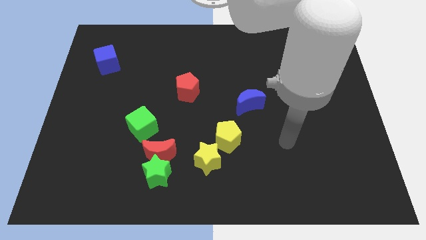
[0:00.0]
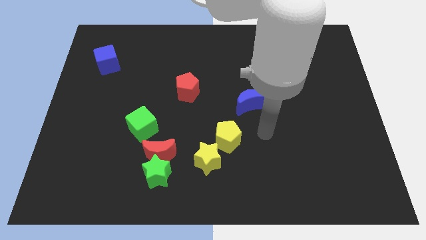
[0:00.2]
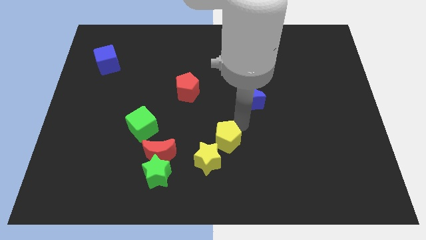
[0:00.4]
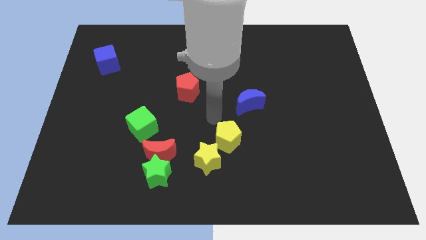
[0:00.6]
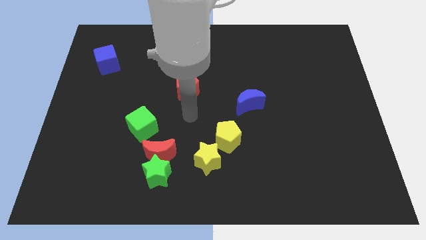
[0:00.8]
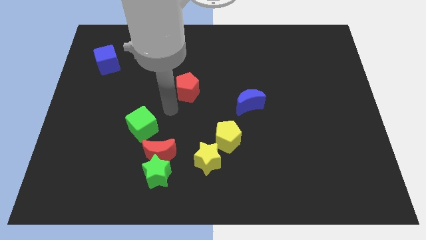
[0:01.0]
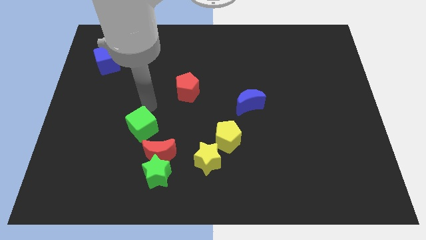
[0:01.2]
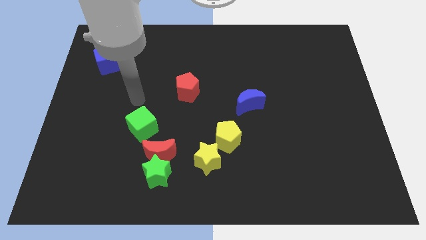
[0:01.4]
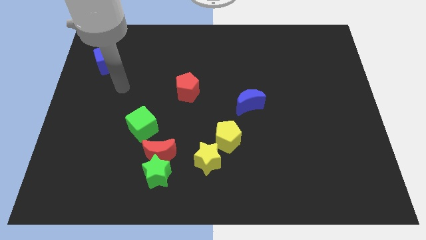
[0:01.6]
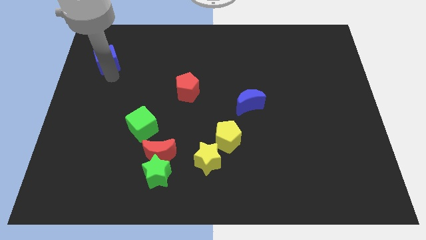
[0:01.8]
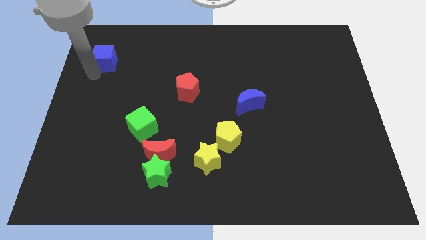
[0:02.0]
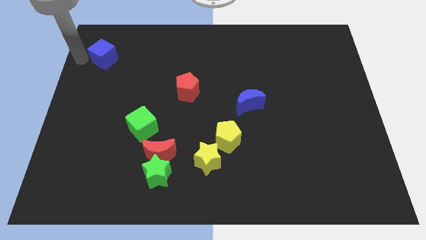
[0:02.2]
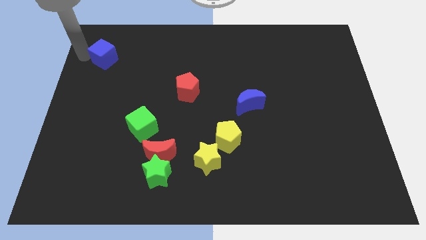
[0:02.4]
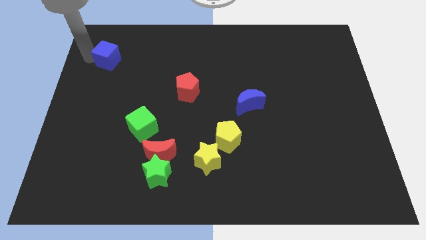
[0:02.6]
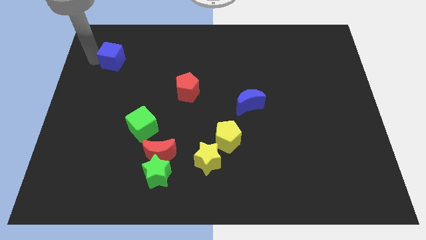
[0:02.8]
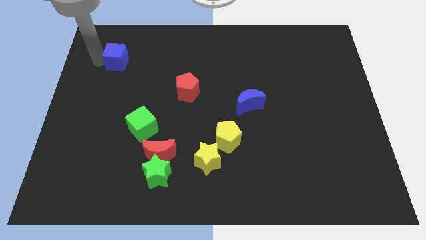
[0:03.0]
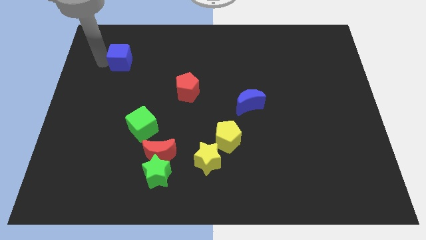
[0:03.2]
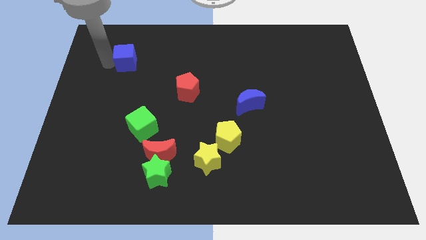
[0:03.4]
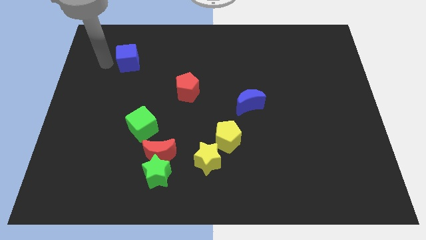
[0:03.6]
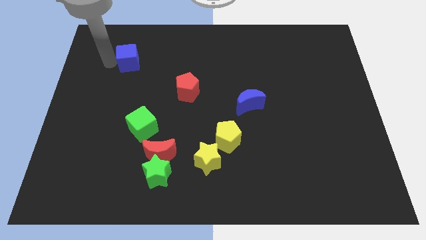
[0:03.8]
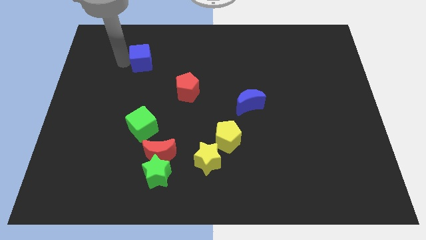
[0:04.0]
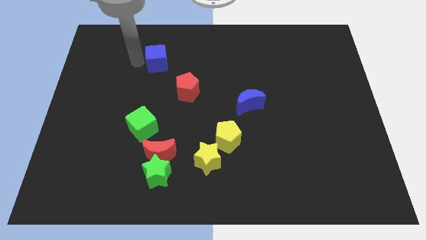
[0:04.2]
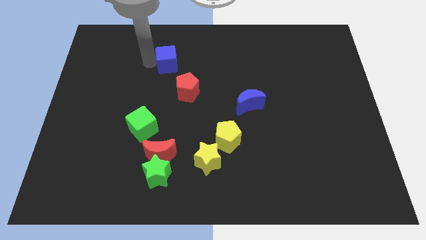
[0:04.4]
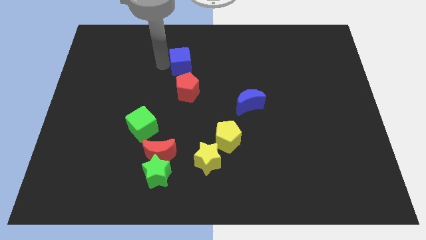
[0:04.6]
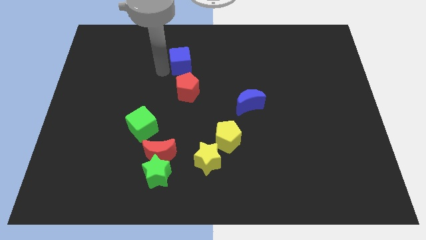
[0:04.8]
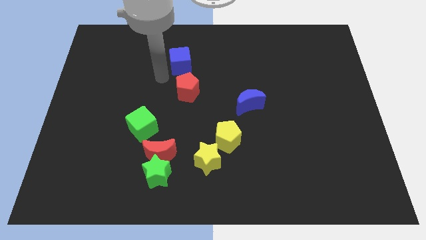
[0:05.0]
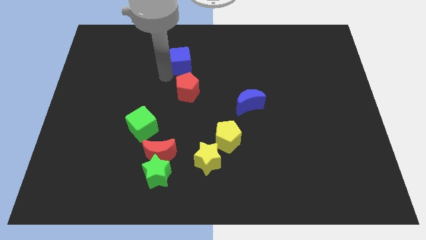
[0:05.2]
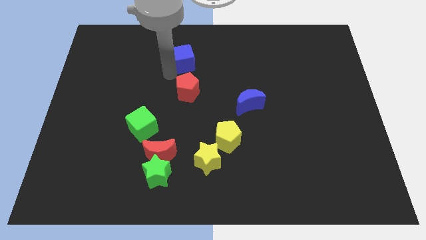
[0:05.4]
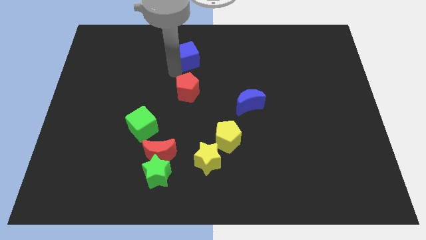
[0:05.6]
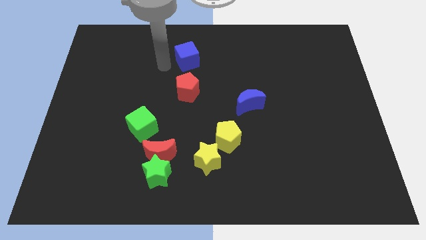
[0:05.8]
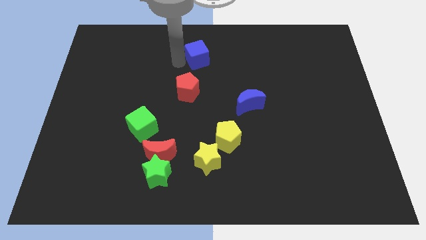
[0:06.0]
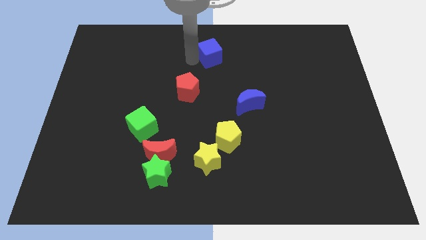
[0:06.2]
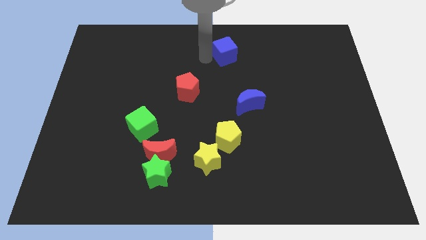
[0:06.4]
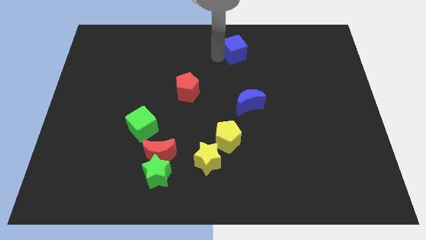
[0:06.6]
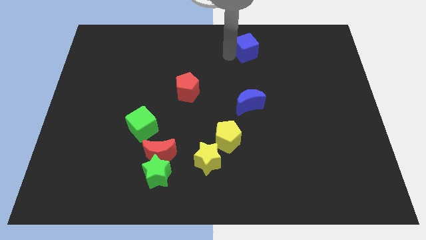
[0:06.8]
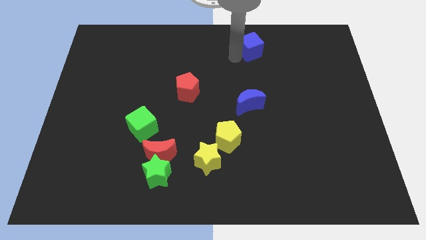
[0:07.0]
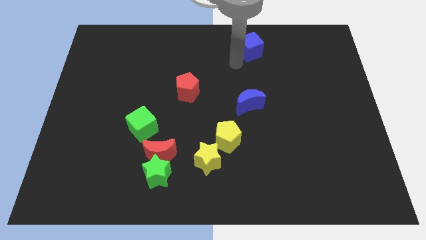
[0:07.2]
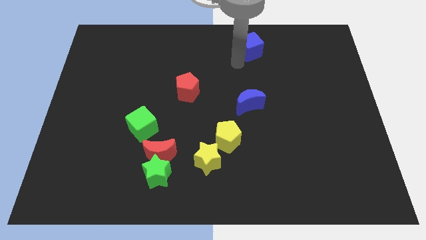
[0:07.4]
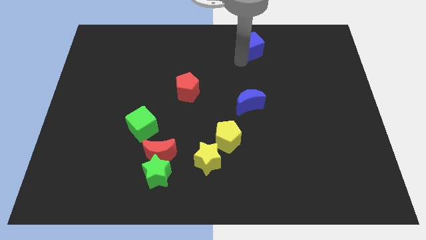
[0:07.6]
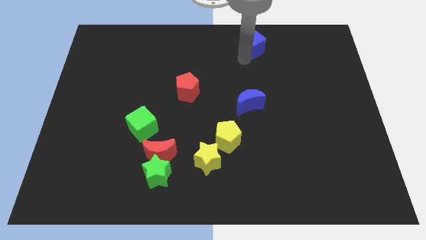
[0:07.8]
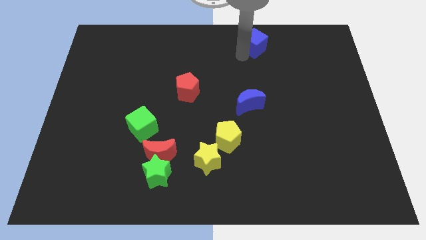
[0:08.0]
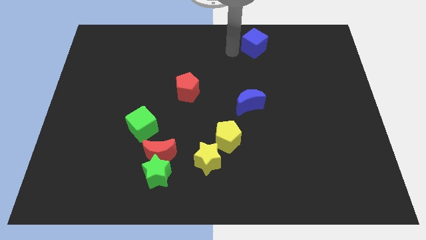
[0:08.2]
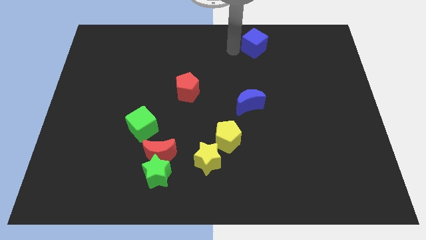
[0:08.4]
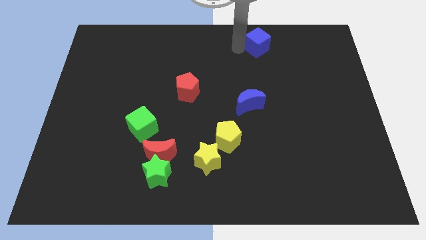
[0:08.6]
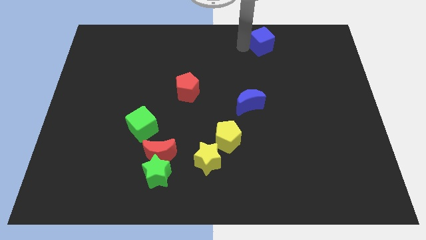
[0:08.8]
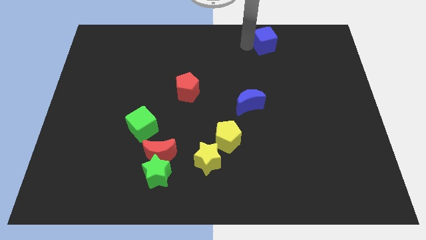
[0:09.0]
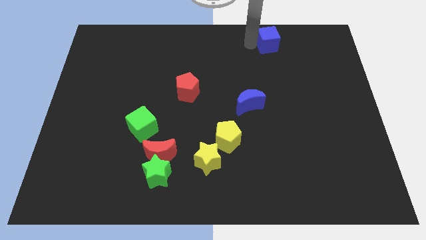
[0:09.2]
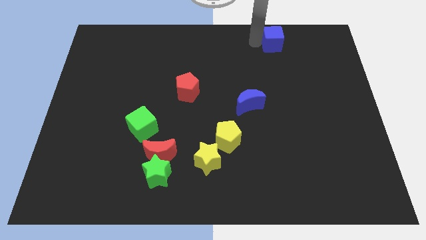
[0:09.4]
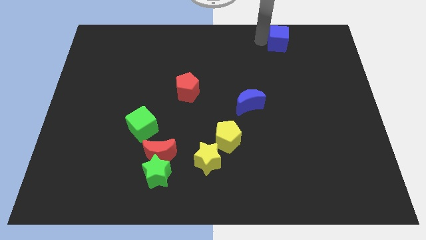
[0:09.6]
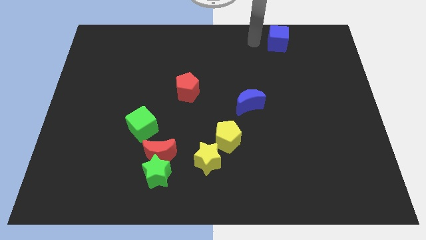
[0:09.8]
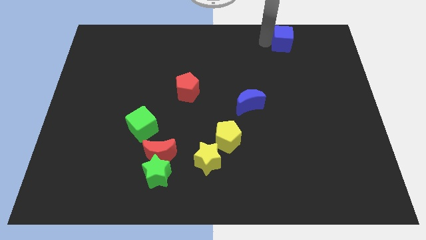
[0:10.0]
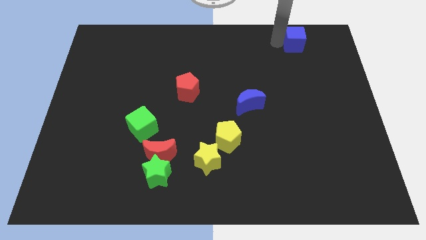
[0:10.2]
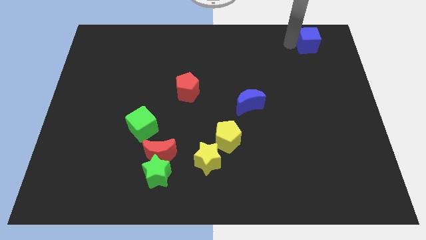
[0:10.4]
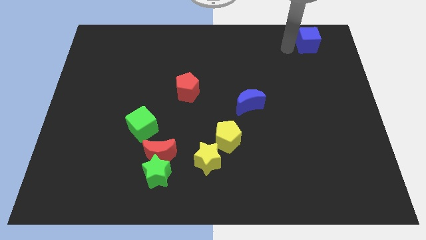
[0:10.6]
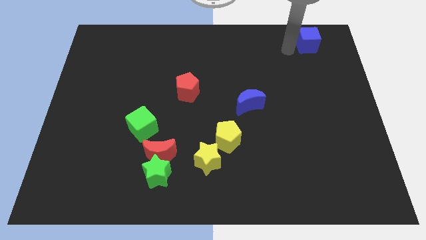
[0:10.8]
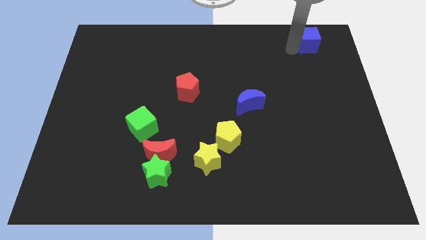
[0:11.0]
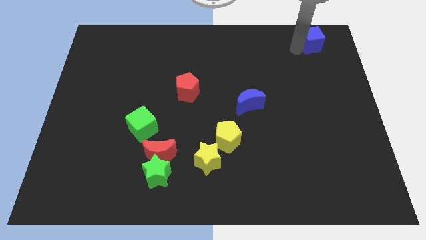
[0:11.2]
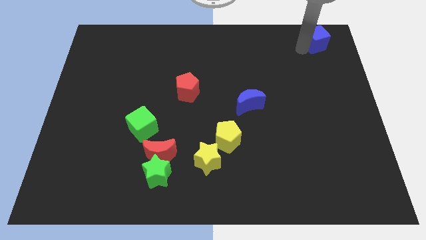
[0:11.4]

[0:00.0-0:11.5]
move the blue cube to the top right corner

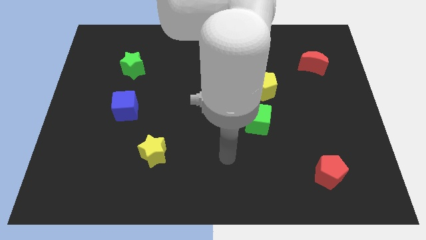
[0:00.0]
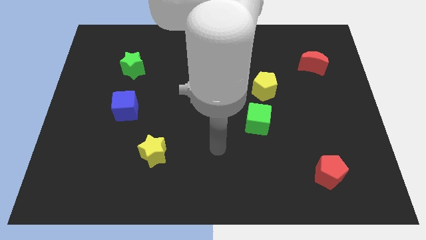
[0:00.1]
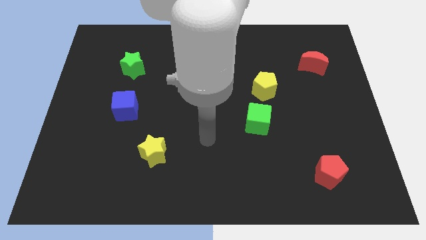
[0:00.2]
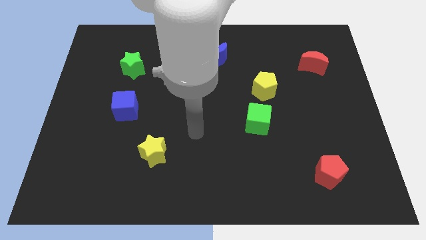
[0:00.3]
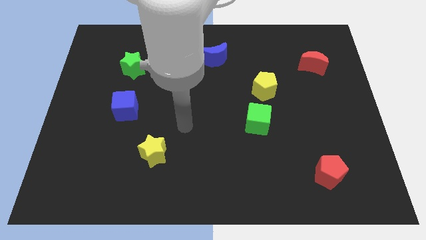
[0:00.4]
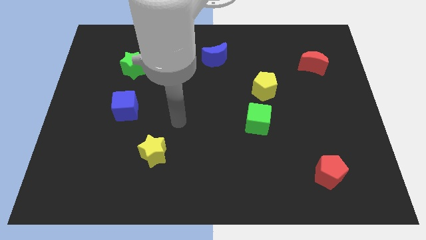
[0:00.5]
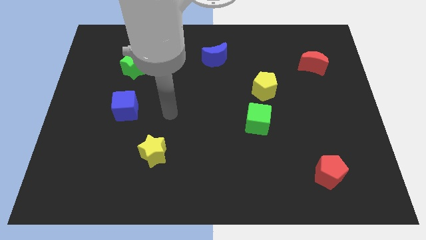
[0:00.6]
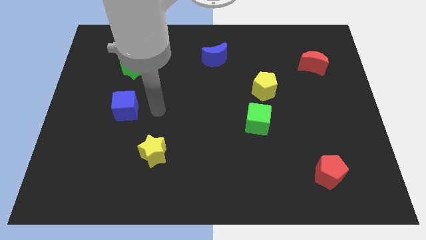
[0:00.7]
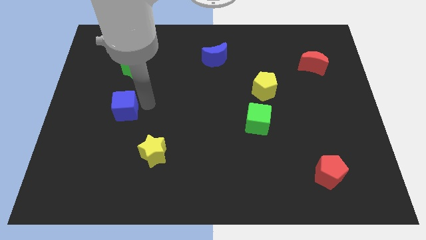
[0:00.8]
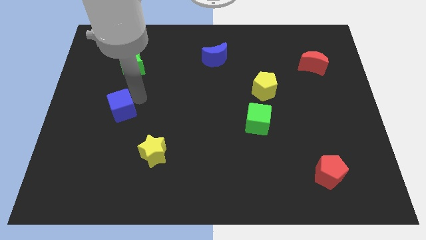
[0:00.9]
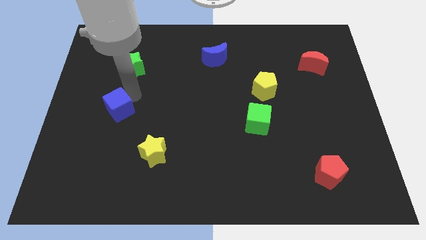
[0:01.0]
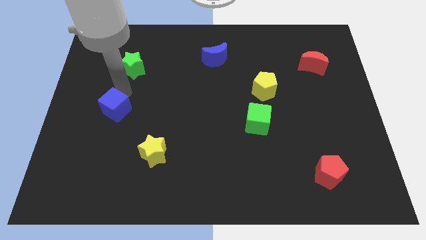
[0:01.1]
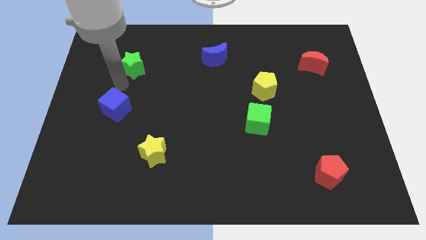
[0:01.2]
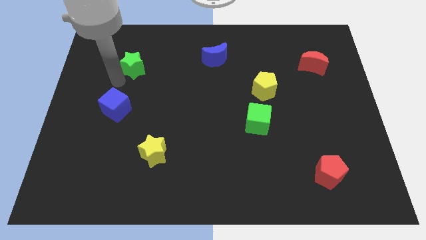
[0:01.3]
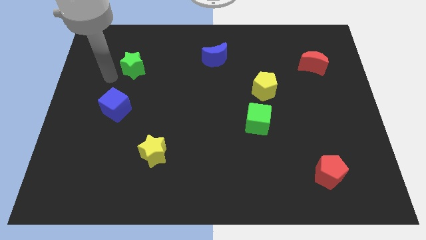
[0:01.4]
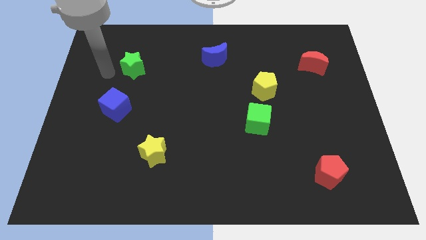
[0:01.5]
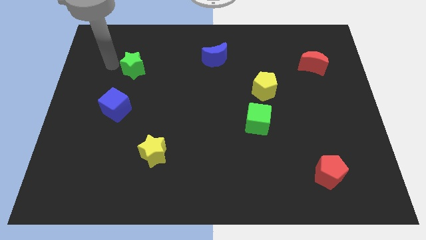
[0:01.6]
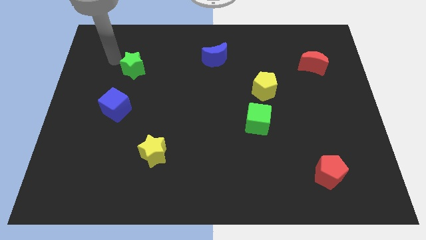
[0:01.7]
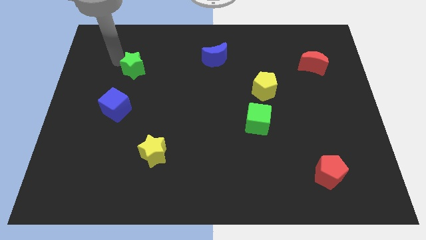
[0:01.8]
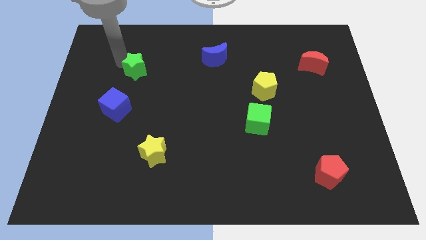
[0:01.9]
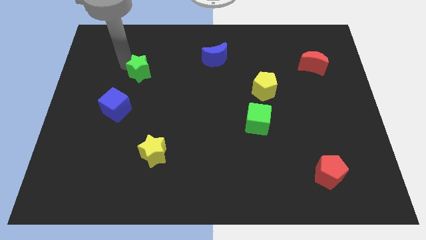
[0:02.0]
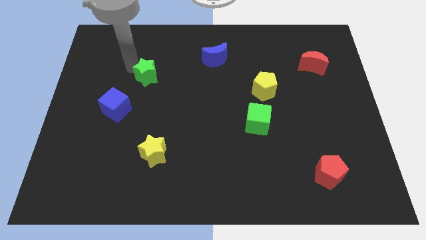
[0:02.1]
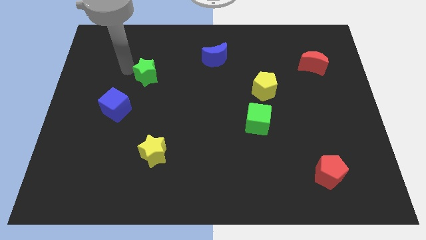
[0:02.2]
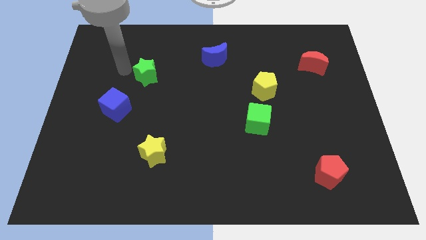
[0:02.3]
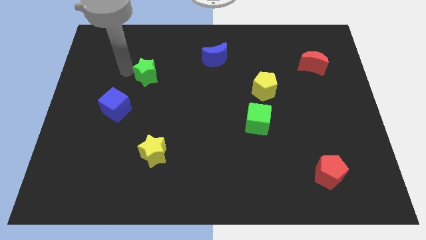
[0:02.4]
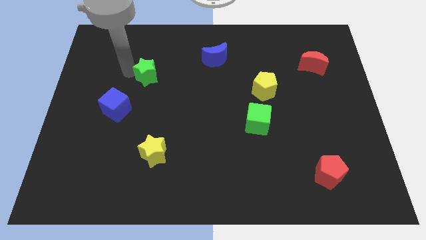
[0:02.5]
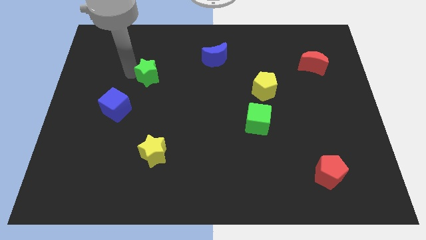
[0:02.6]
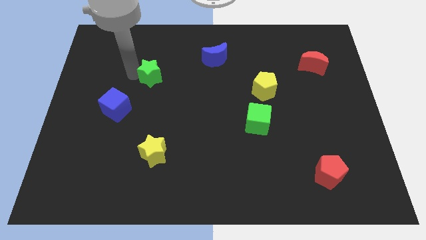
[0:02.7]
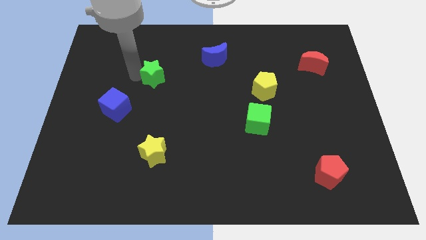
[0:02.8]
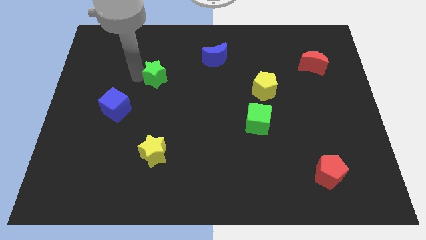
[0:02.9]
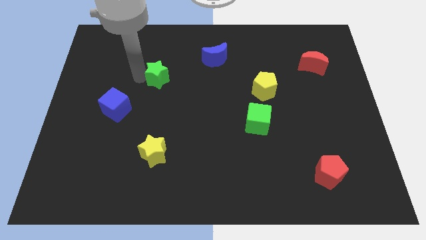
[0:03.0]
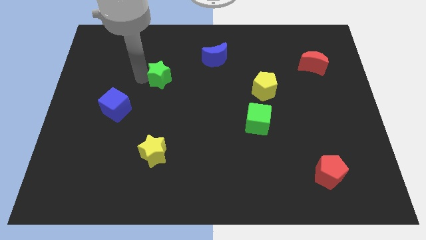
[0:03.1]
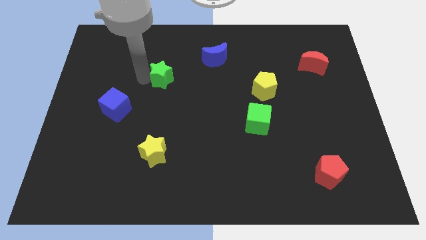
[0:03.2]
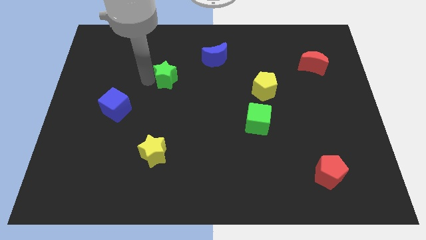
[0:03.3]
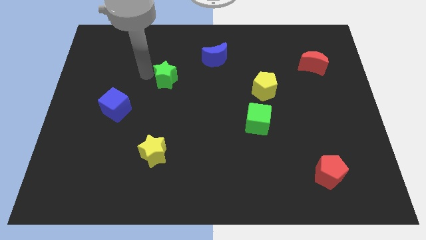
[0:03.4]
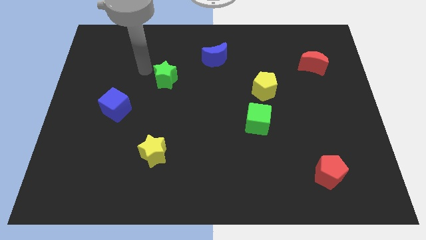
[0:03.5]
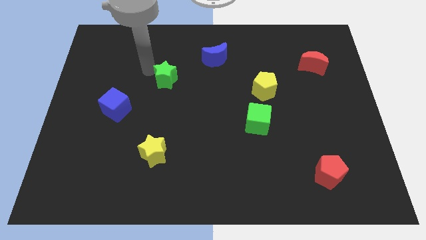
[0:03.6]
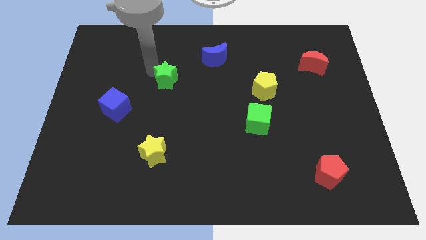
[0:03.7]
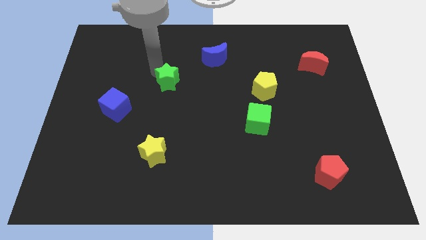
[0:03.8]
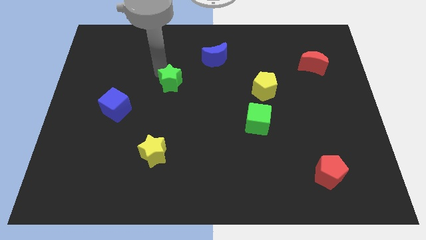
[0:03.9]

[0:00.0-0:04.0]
move the green star to the center
